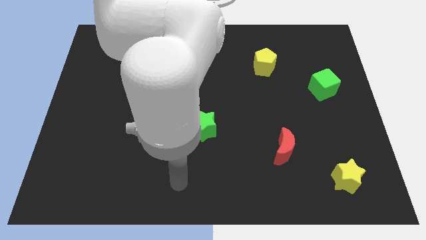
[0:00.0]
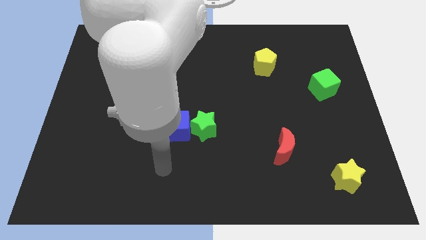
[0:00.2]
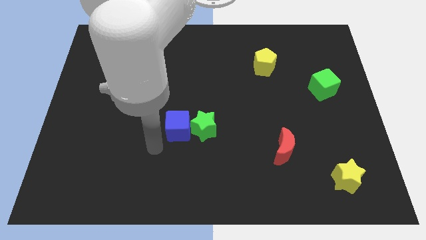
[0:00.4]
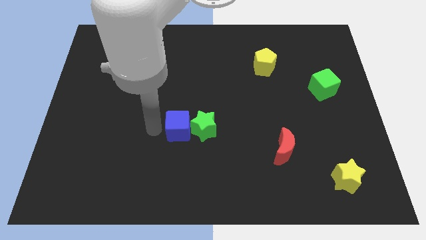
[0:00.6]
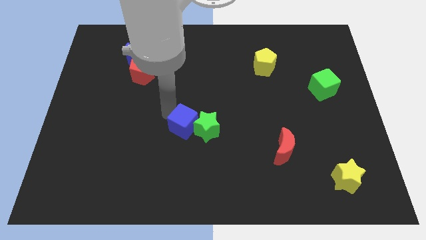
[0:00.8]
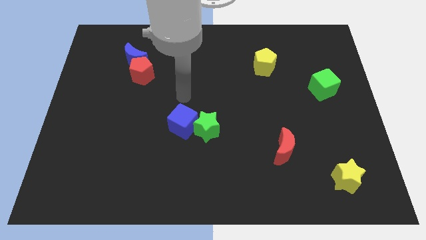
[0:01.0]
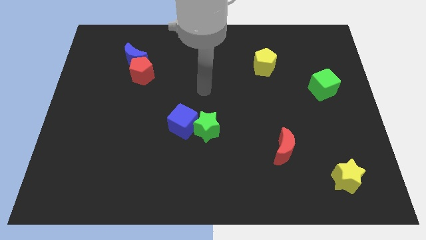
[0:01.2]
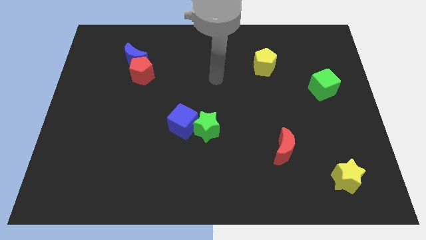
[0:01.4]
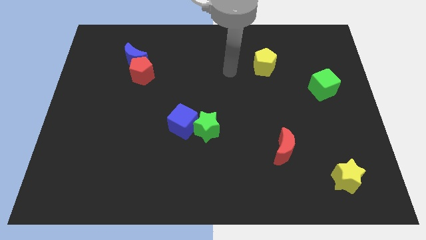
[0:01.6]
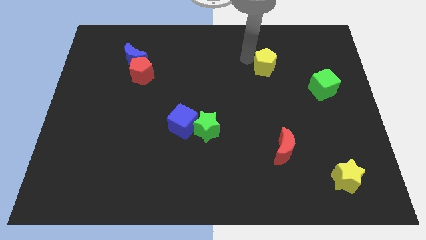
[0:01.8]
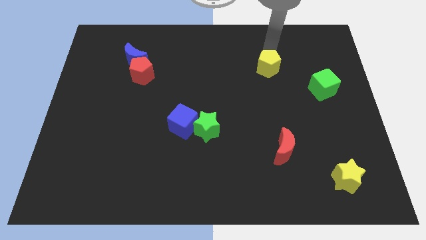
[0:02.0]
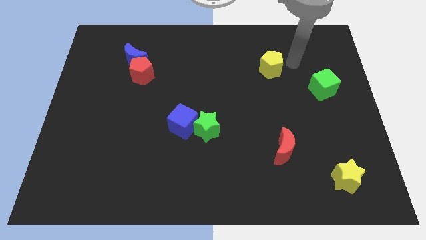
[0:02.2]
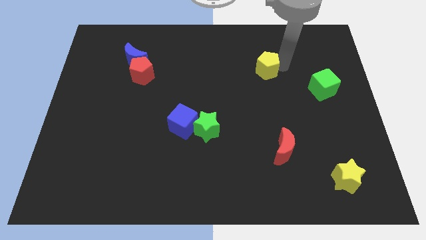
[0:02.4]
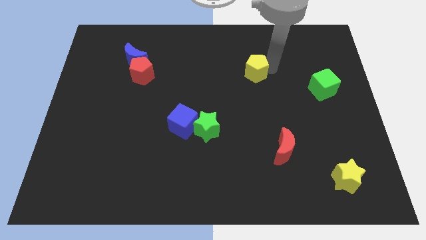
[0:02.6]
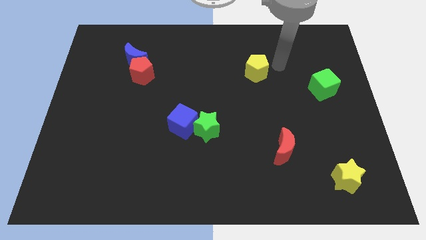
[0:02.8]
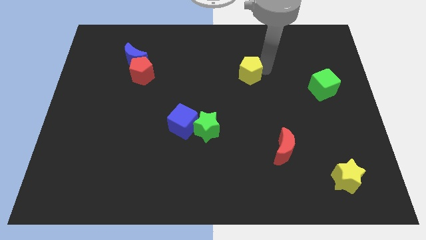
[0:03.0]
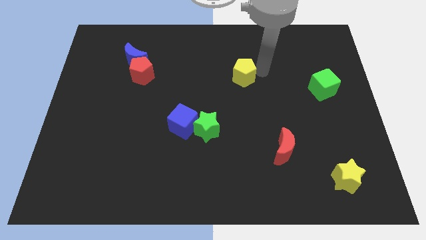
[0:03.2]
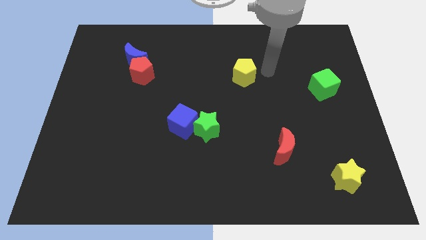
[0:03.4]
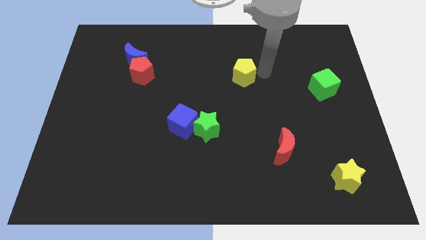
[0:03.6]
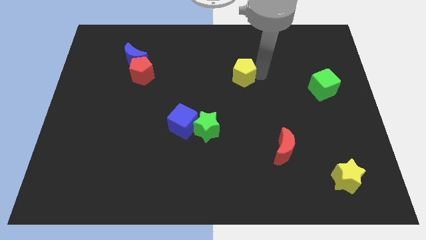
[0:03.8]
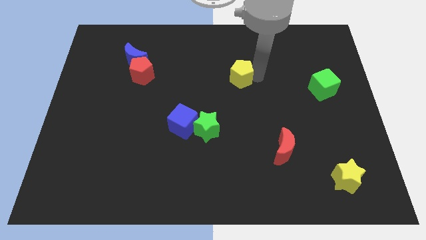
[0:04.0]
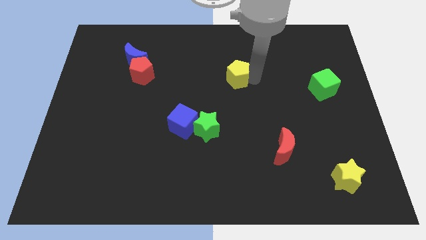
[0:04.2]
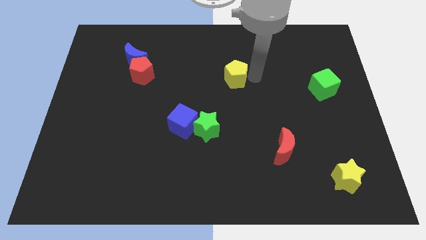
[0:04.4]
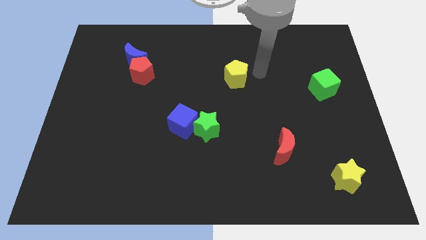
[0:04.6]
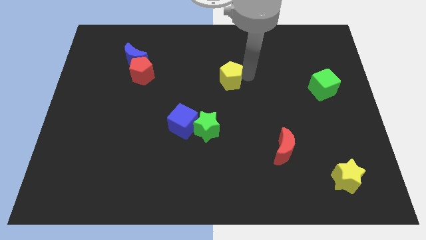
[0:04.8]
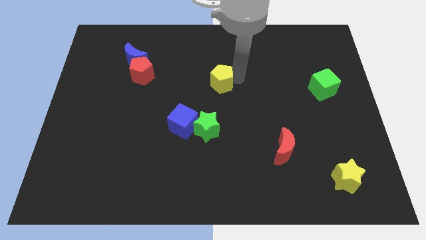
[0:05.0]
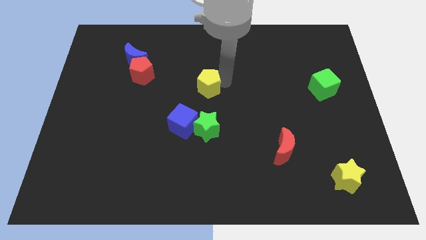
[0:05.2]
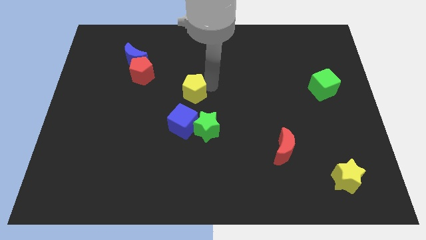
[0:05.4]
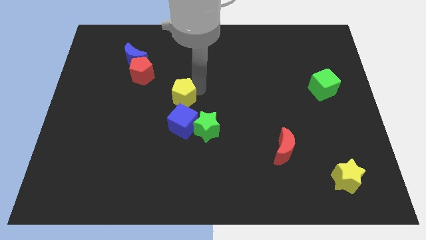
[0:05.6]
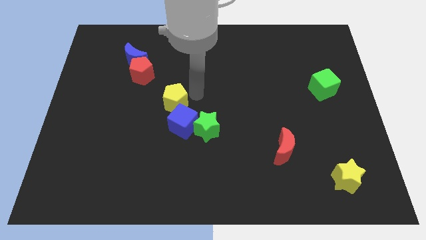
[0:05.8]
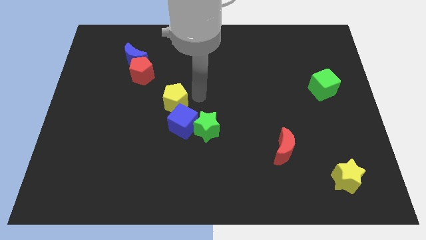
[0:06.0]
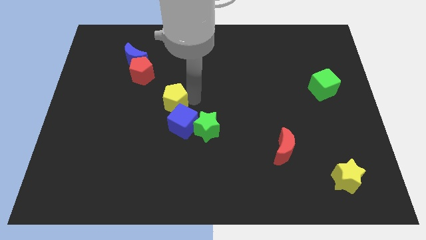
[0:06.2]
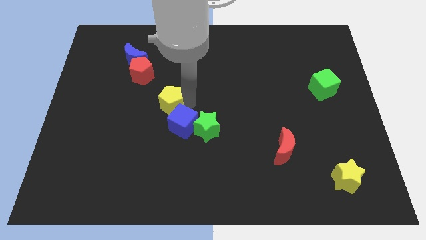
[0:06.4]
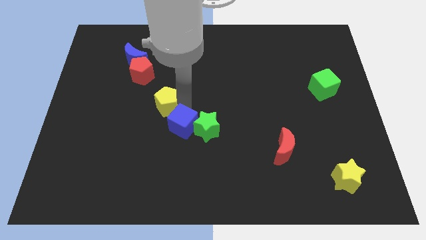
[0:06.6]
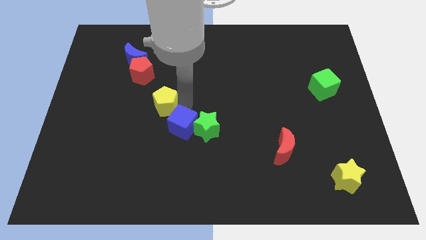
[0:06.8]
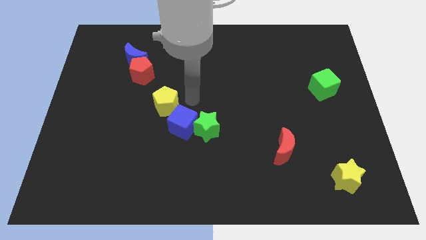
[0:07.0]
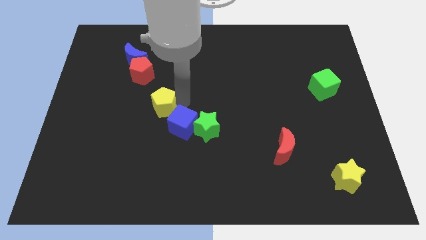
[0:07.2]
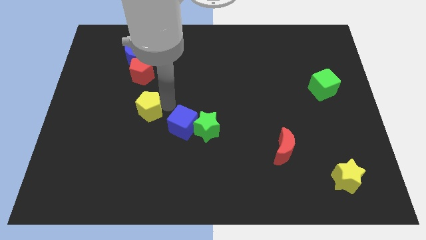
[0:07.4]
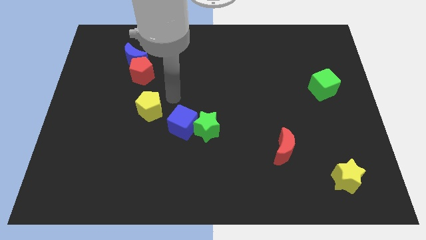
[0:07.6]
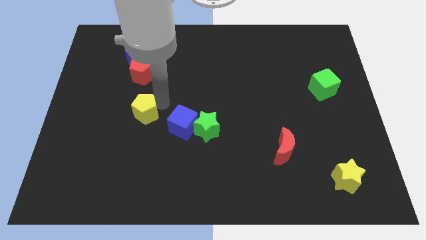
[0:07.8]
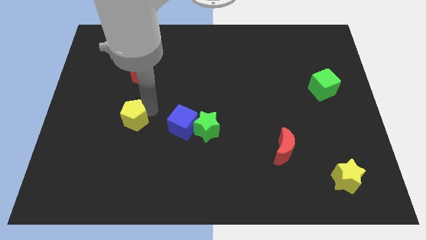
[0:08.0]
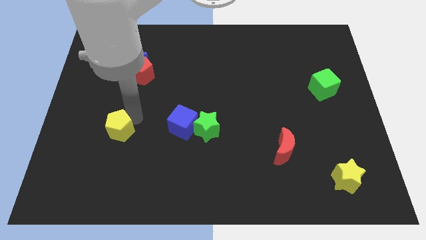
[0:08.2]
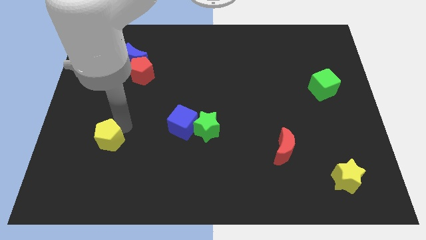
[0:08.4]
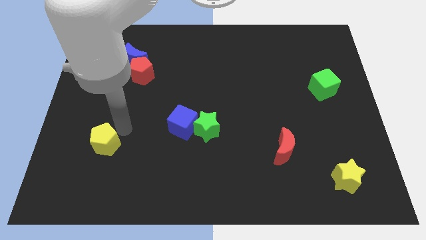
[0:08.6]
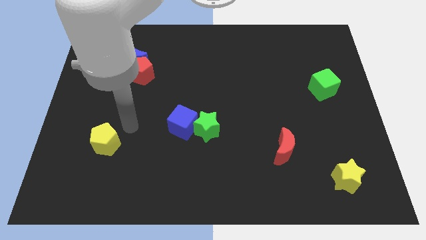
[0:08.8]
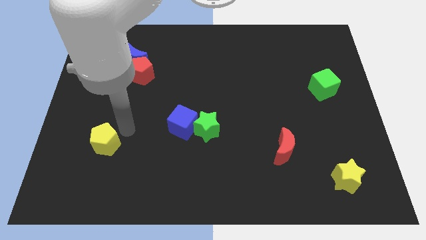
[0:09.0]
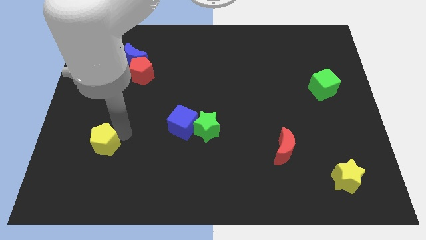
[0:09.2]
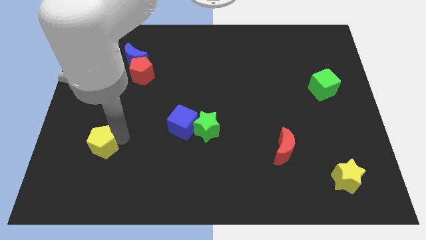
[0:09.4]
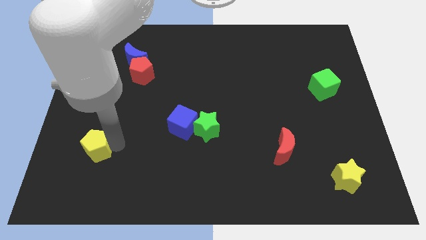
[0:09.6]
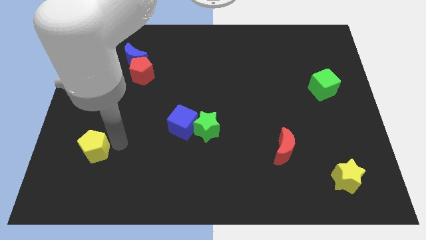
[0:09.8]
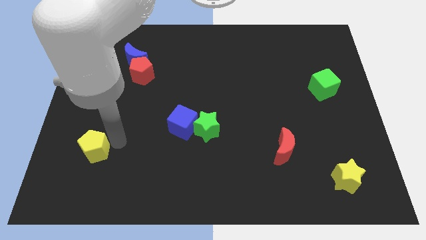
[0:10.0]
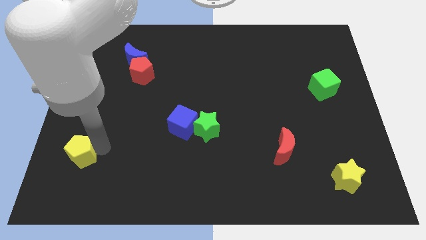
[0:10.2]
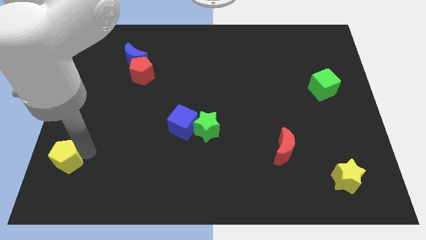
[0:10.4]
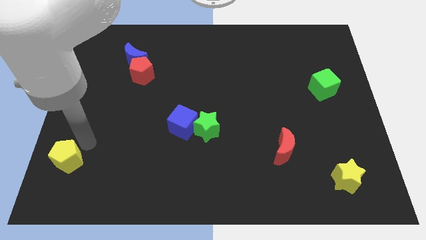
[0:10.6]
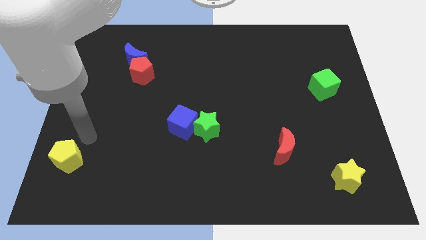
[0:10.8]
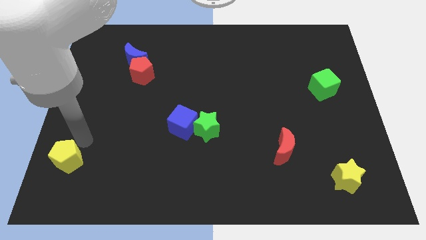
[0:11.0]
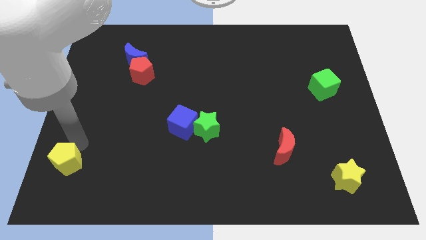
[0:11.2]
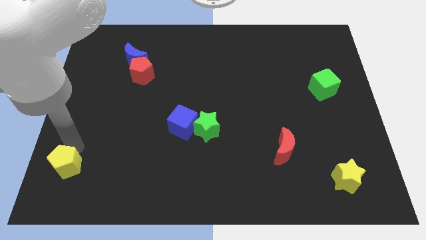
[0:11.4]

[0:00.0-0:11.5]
put the yellow pentagon to the bottom left of the board

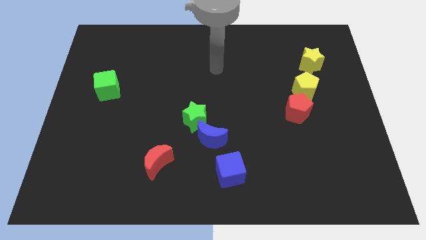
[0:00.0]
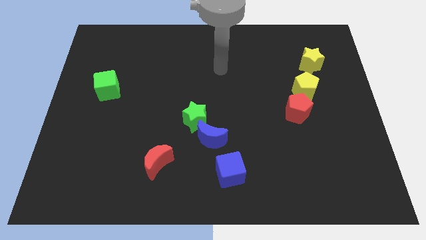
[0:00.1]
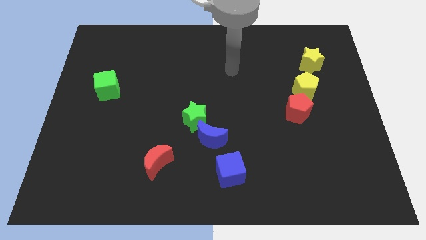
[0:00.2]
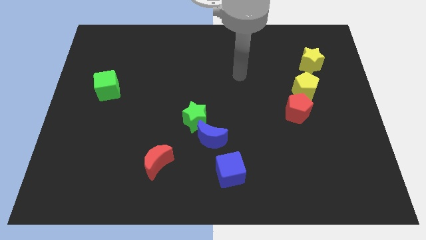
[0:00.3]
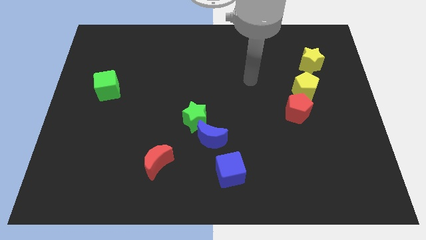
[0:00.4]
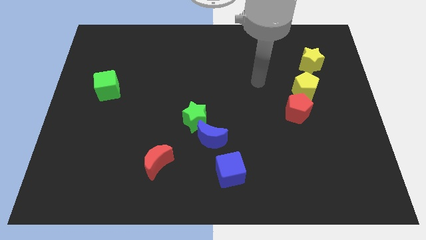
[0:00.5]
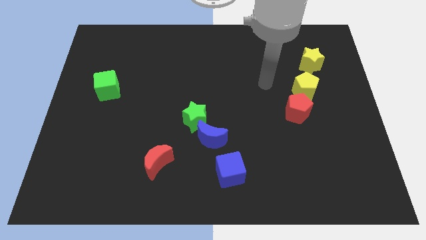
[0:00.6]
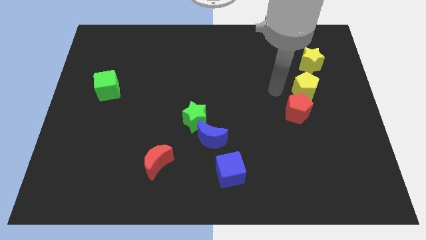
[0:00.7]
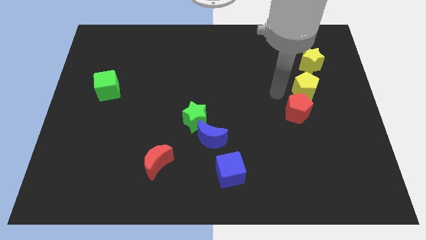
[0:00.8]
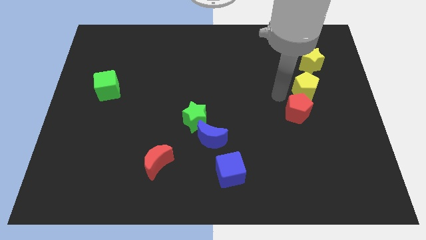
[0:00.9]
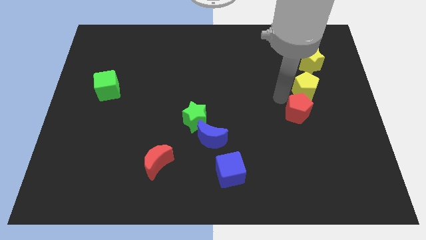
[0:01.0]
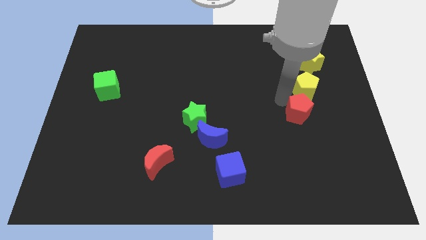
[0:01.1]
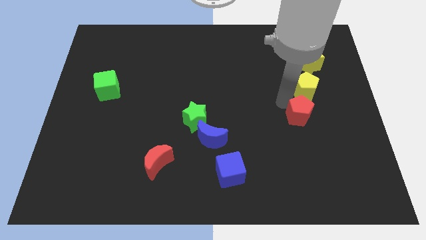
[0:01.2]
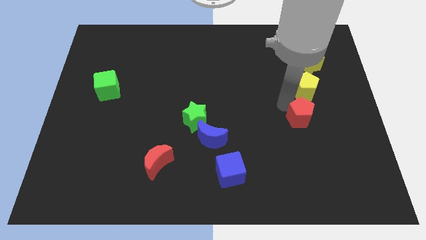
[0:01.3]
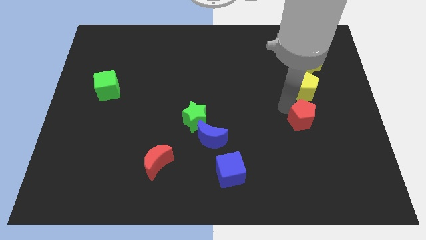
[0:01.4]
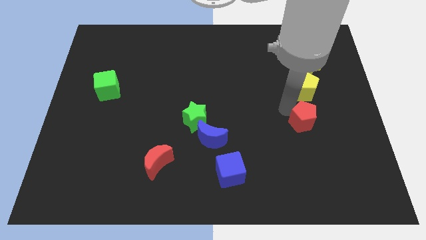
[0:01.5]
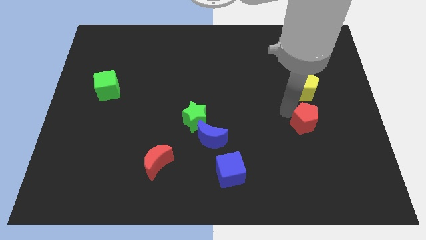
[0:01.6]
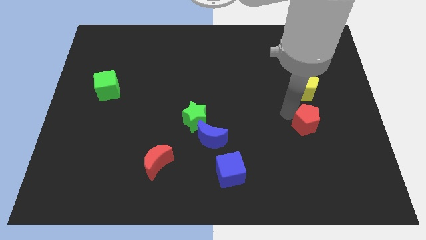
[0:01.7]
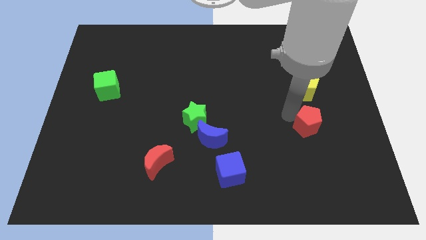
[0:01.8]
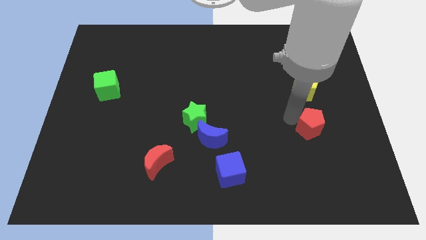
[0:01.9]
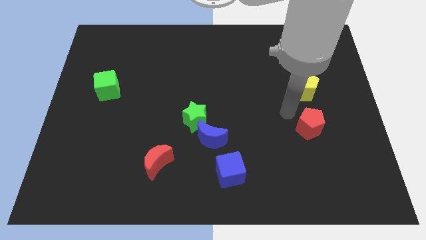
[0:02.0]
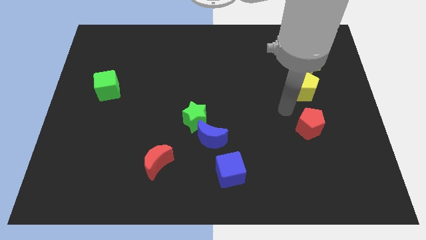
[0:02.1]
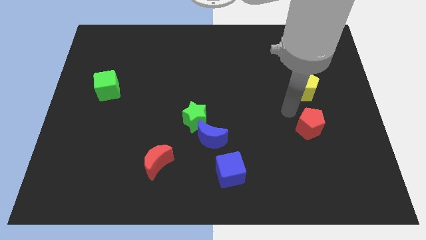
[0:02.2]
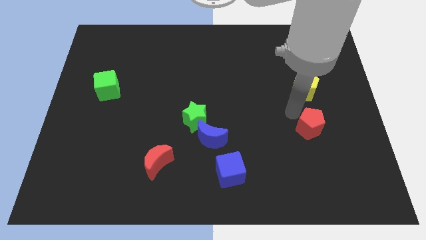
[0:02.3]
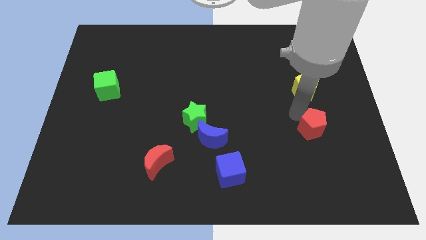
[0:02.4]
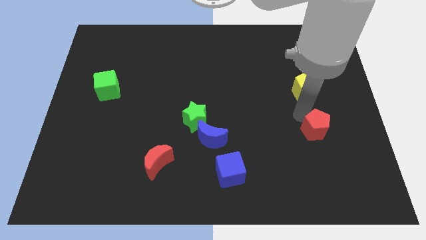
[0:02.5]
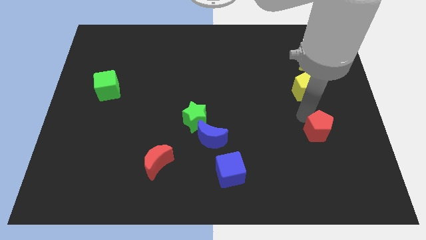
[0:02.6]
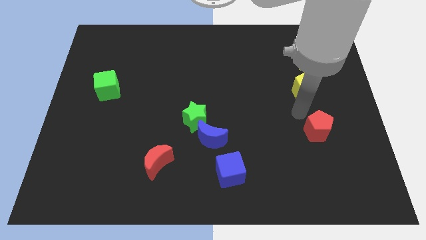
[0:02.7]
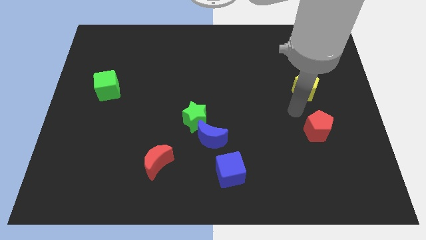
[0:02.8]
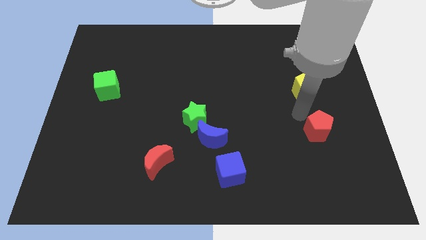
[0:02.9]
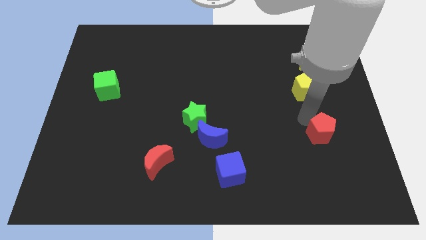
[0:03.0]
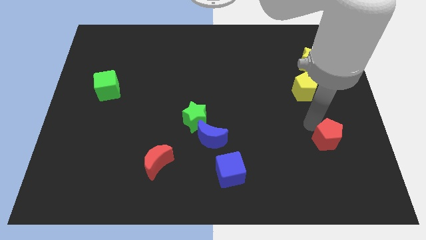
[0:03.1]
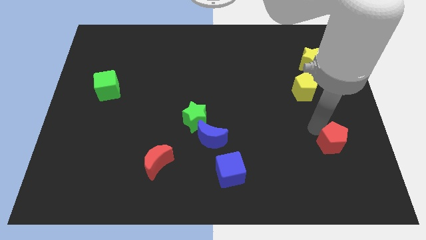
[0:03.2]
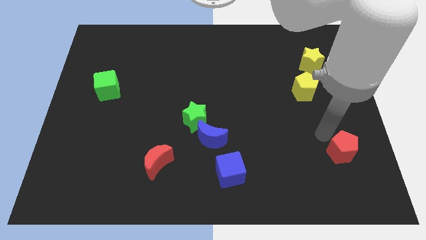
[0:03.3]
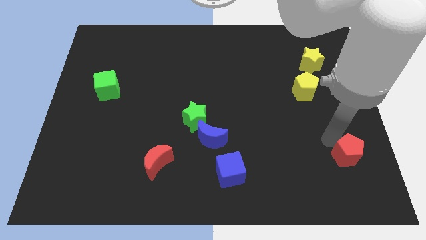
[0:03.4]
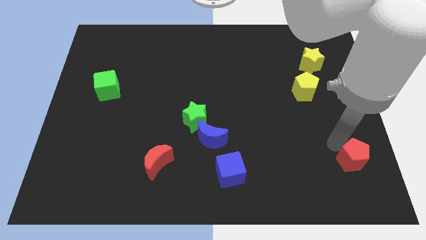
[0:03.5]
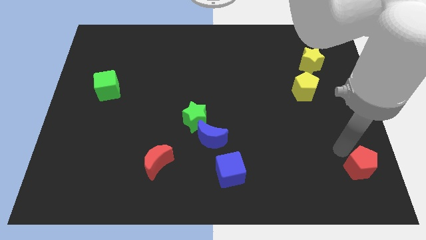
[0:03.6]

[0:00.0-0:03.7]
put the red pentagon to the bottom right of the board
